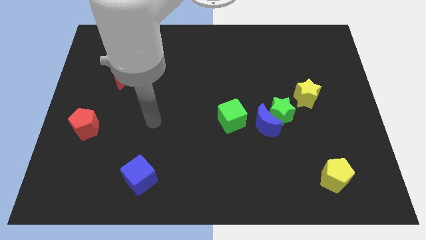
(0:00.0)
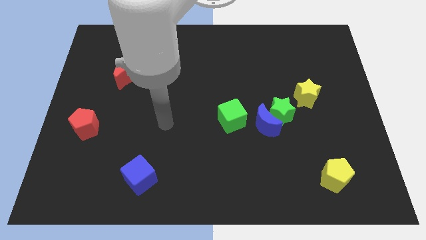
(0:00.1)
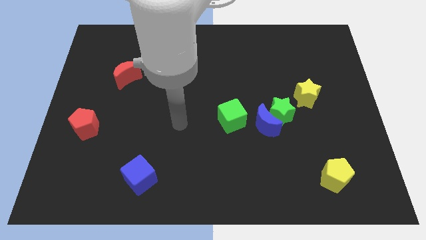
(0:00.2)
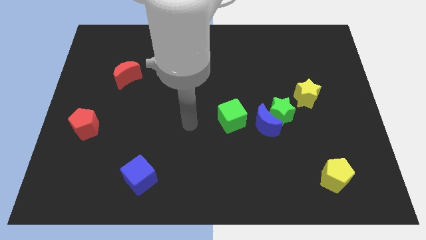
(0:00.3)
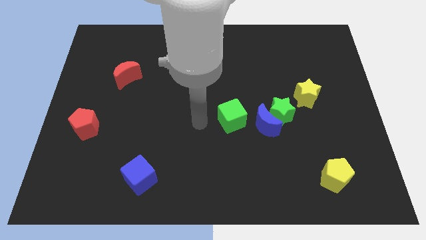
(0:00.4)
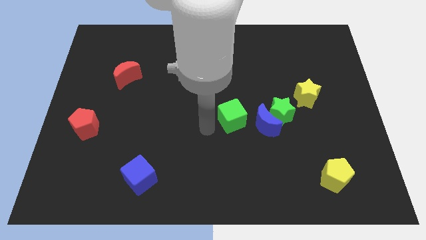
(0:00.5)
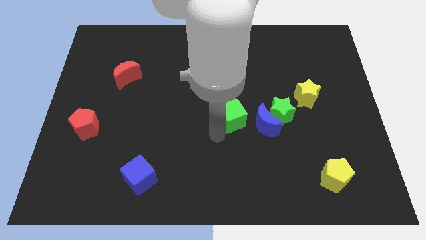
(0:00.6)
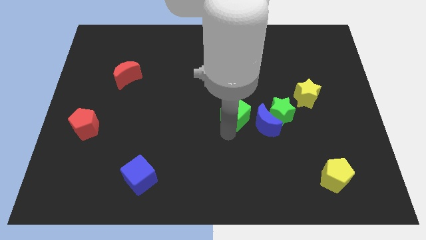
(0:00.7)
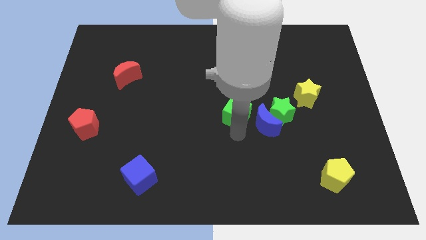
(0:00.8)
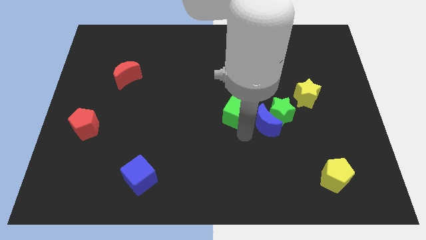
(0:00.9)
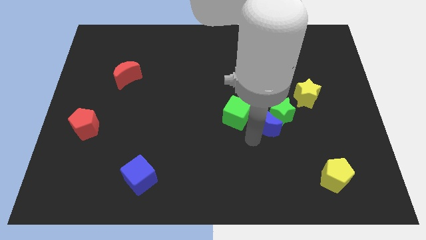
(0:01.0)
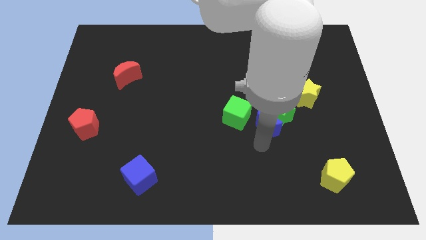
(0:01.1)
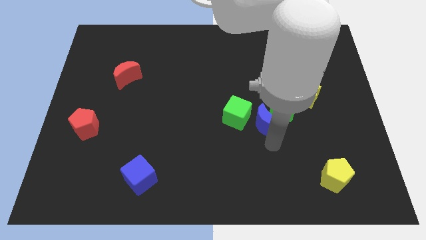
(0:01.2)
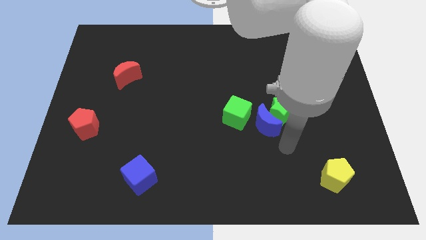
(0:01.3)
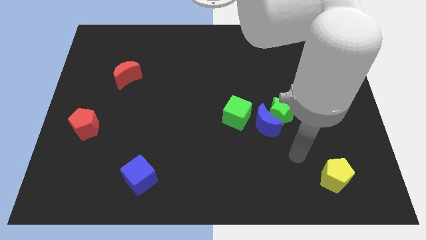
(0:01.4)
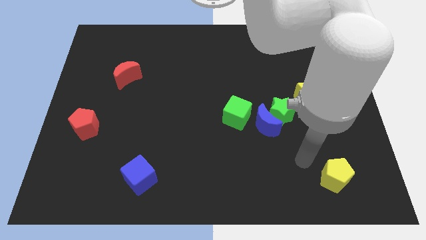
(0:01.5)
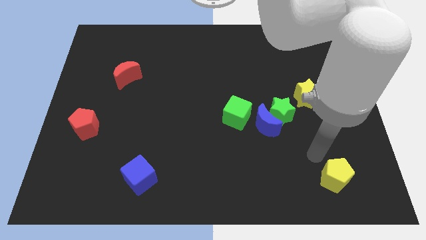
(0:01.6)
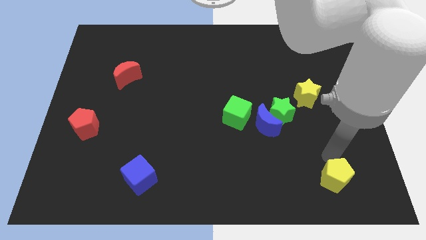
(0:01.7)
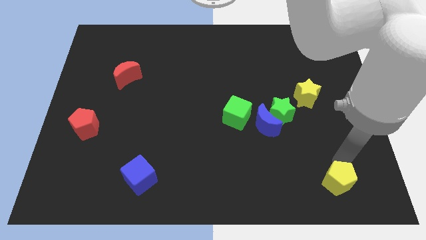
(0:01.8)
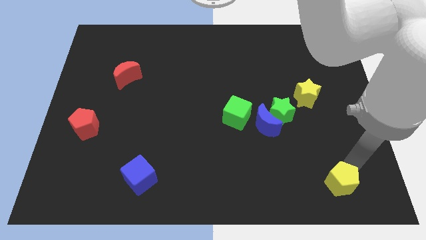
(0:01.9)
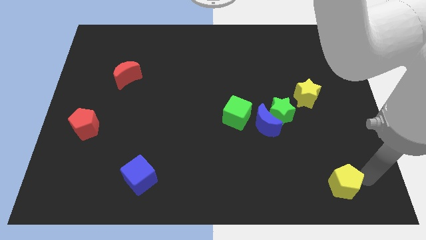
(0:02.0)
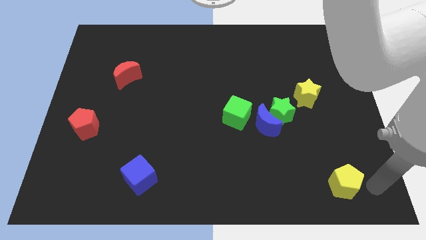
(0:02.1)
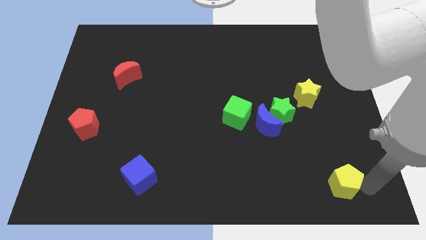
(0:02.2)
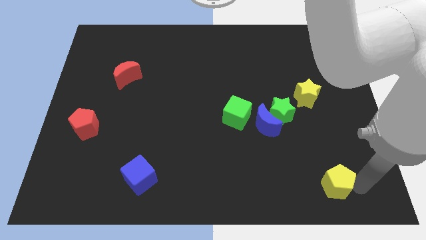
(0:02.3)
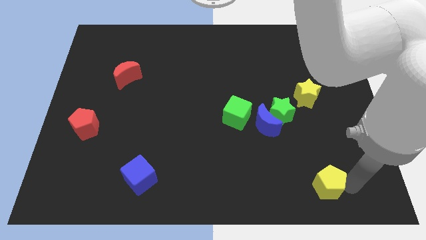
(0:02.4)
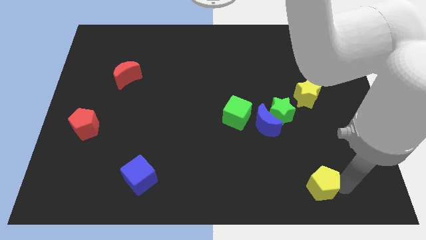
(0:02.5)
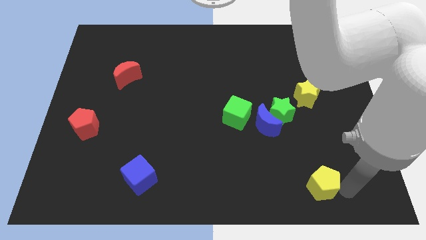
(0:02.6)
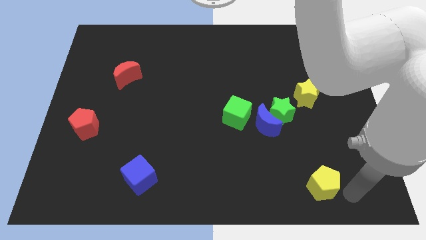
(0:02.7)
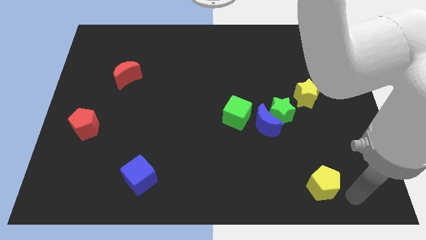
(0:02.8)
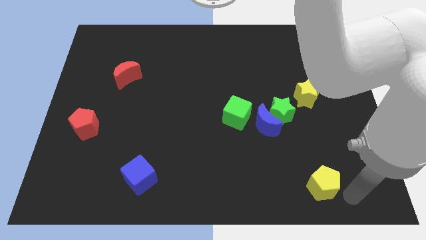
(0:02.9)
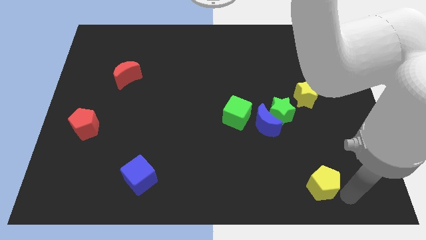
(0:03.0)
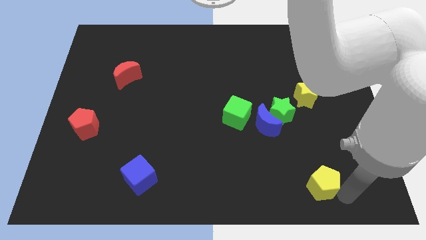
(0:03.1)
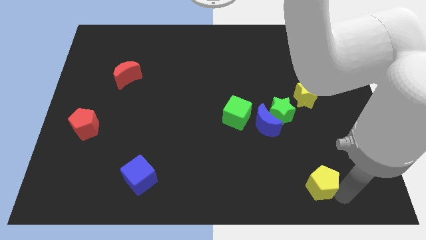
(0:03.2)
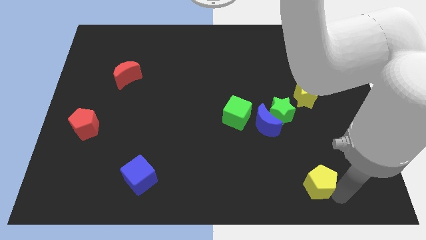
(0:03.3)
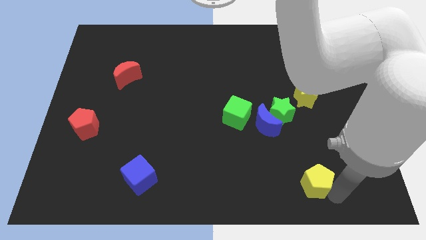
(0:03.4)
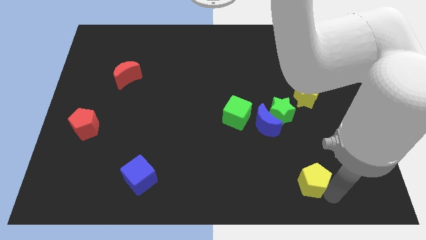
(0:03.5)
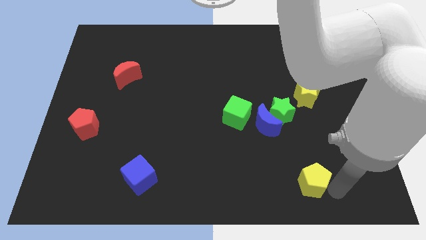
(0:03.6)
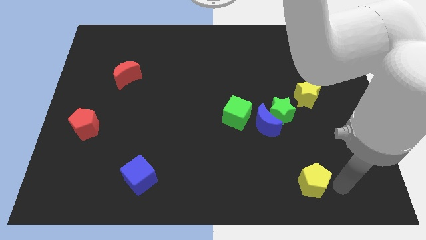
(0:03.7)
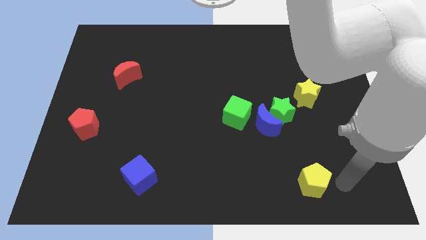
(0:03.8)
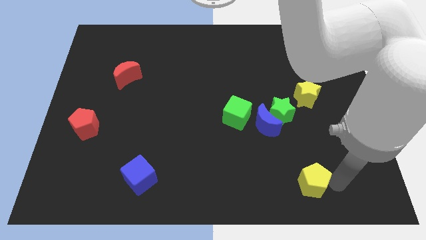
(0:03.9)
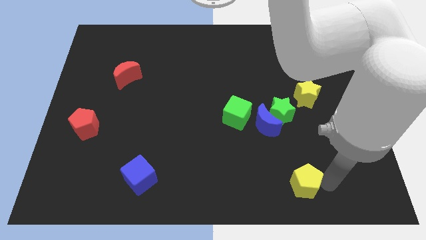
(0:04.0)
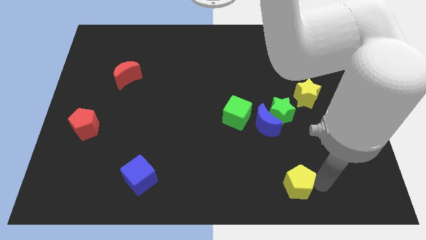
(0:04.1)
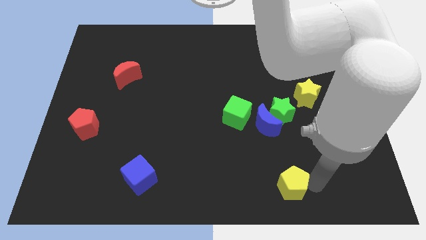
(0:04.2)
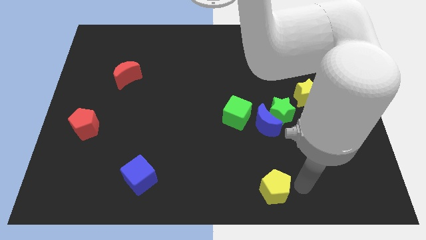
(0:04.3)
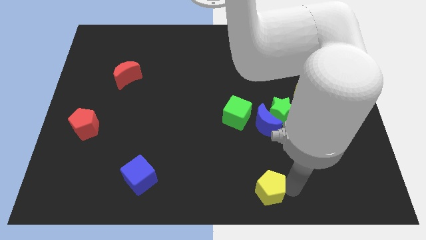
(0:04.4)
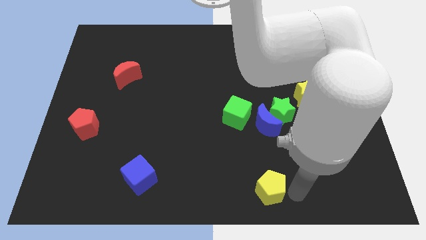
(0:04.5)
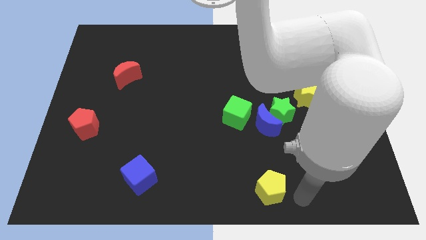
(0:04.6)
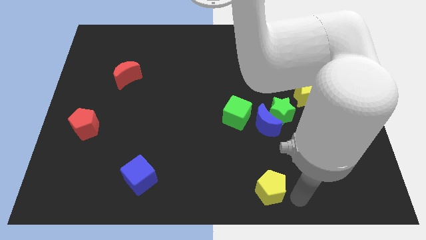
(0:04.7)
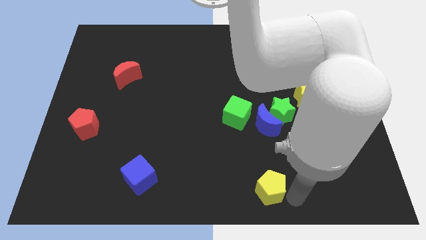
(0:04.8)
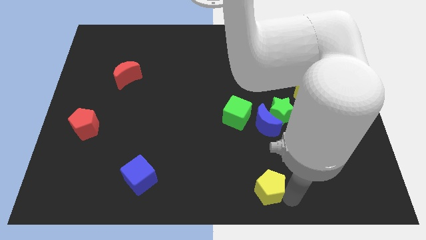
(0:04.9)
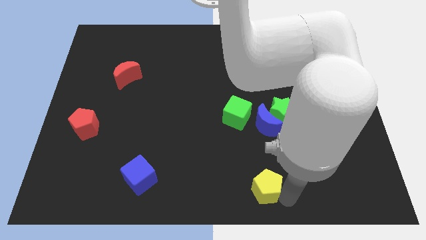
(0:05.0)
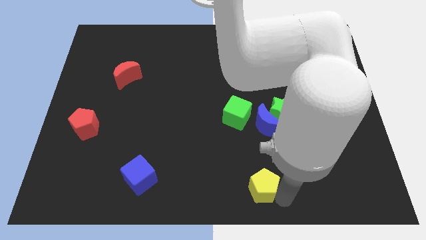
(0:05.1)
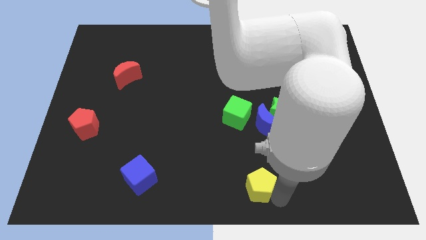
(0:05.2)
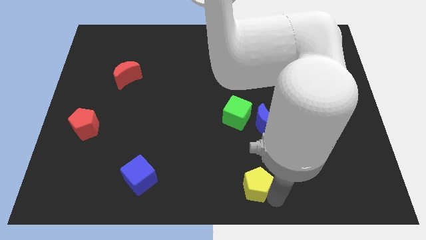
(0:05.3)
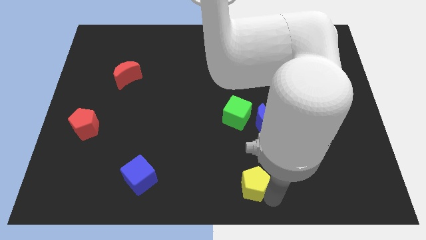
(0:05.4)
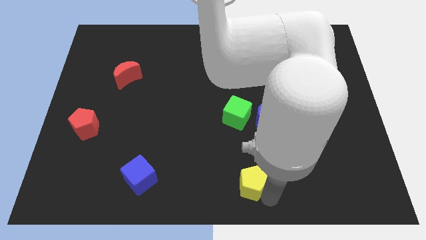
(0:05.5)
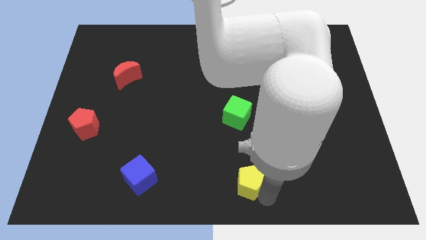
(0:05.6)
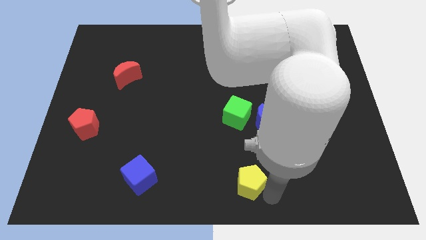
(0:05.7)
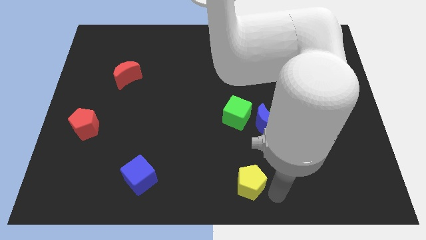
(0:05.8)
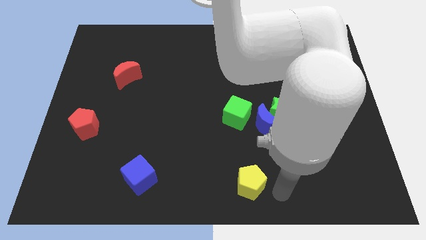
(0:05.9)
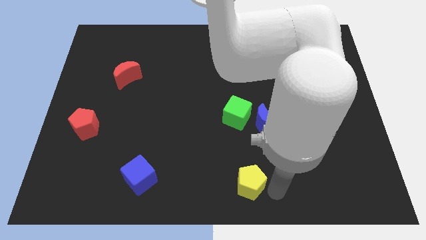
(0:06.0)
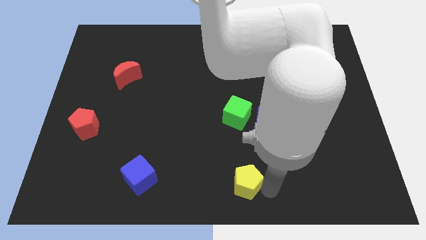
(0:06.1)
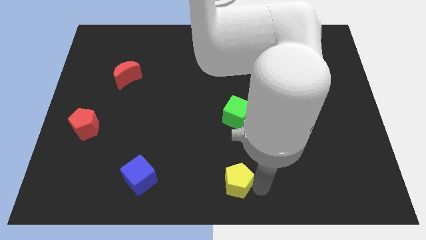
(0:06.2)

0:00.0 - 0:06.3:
push the yellow pentagon to the left

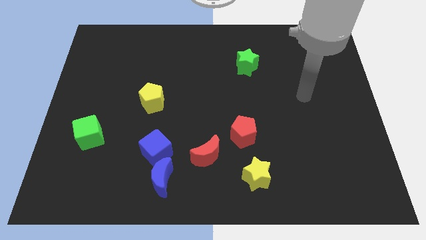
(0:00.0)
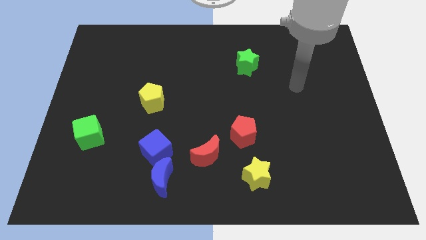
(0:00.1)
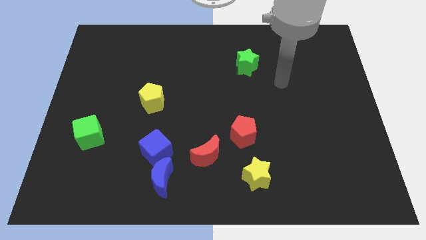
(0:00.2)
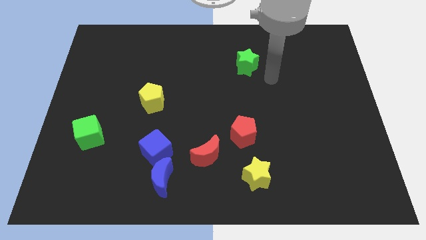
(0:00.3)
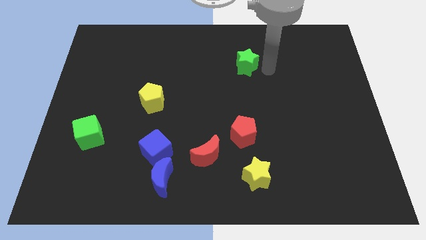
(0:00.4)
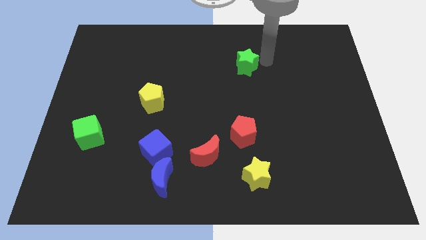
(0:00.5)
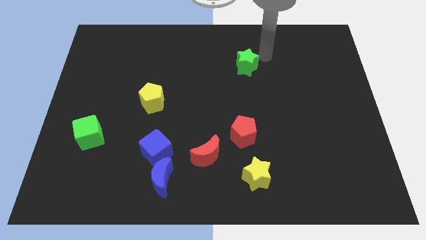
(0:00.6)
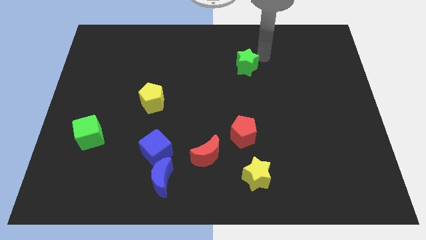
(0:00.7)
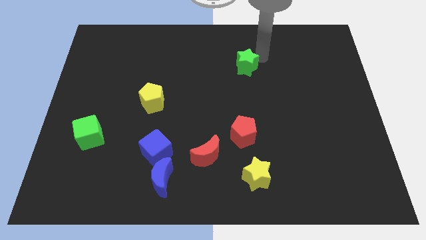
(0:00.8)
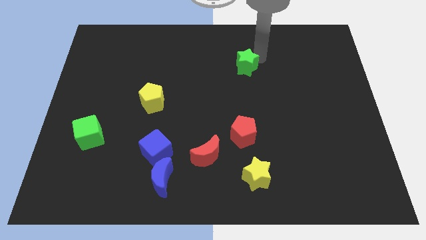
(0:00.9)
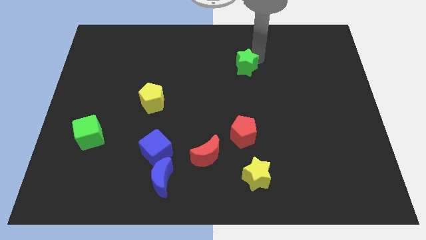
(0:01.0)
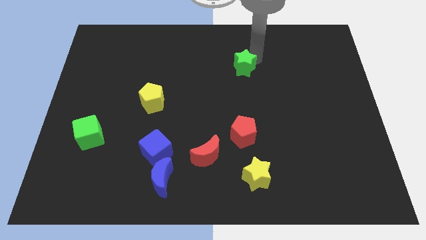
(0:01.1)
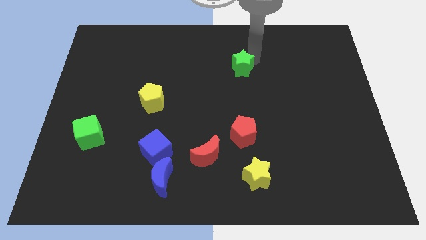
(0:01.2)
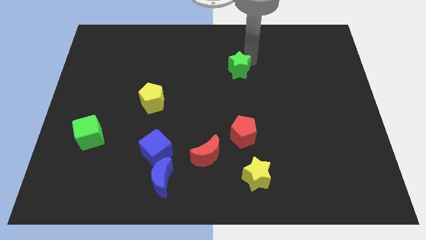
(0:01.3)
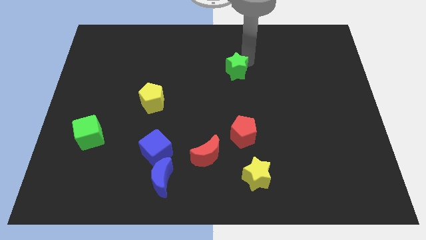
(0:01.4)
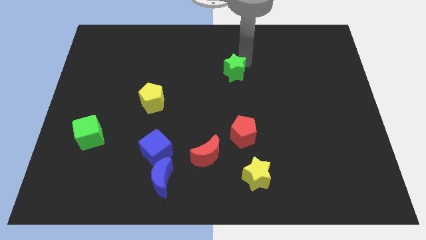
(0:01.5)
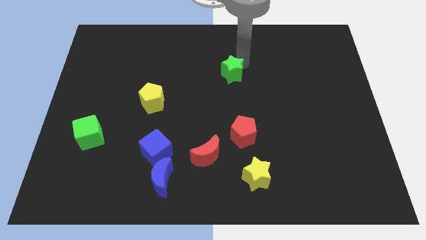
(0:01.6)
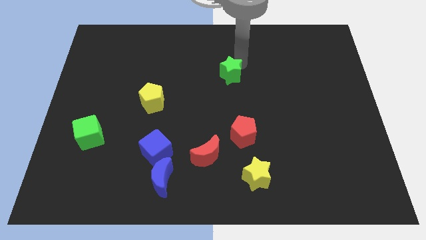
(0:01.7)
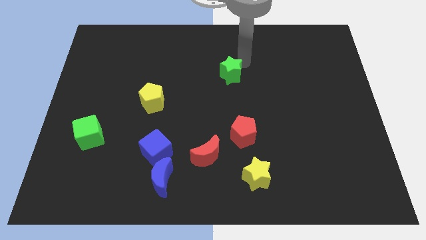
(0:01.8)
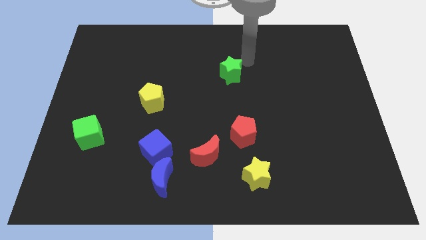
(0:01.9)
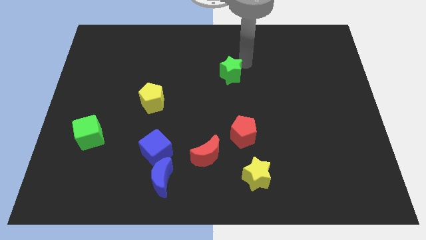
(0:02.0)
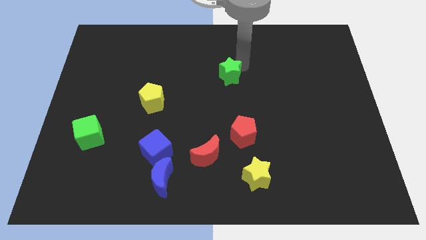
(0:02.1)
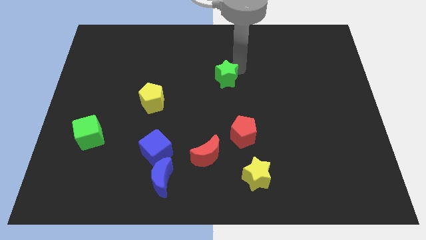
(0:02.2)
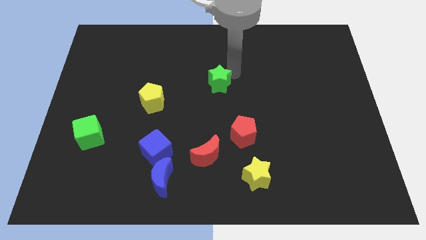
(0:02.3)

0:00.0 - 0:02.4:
slightly push the green star diagonally downwards and left
